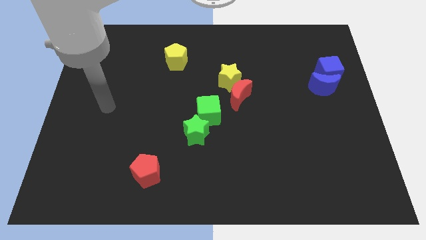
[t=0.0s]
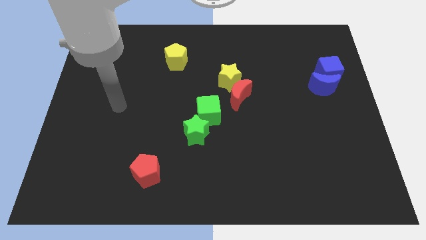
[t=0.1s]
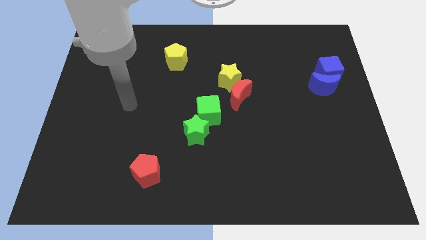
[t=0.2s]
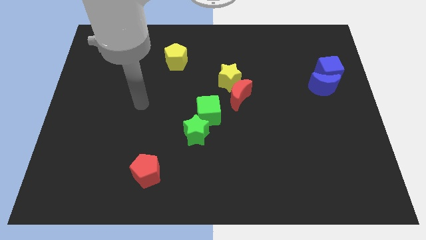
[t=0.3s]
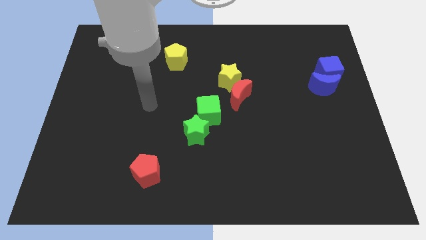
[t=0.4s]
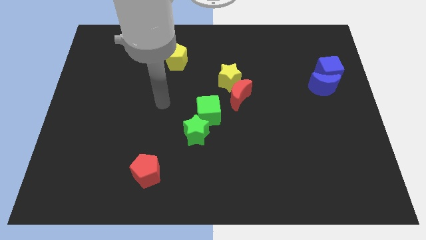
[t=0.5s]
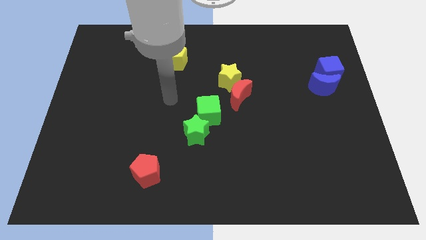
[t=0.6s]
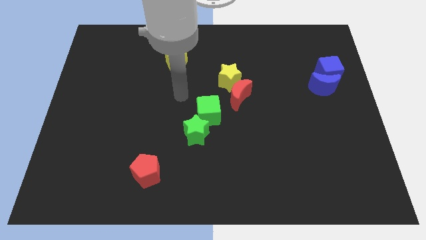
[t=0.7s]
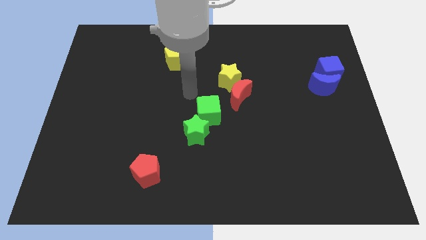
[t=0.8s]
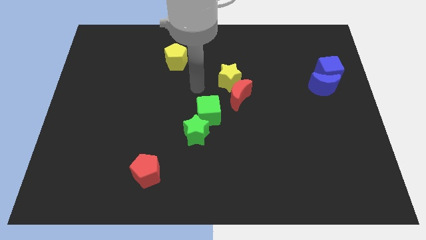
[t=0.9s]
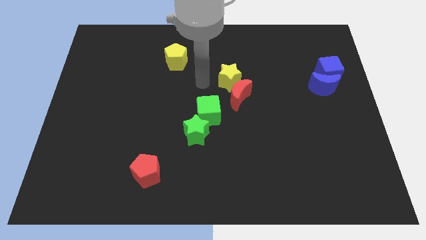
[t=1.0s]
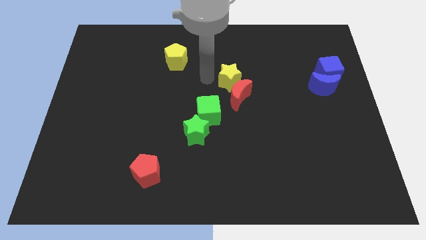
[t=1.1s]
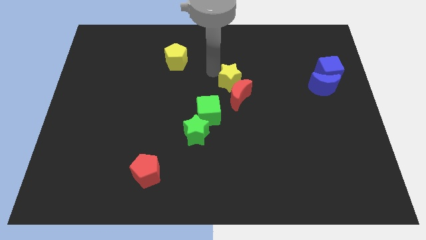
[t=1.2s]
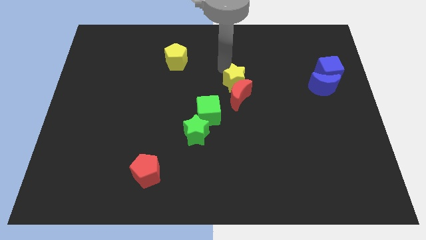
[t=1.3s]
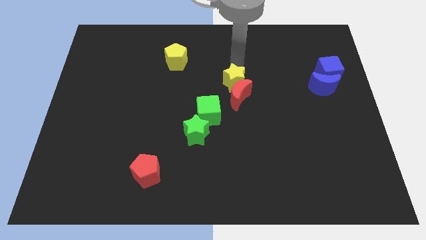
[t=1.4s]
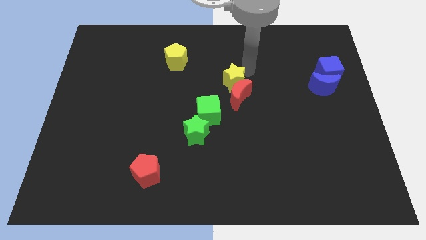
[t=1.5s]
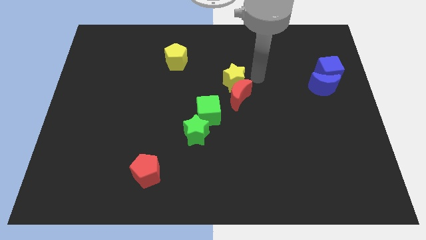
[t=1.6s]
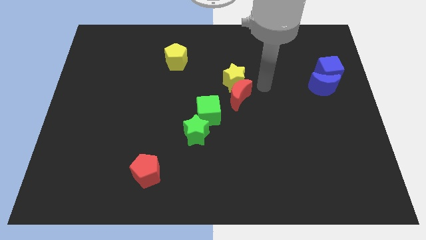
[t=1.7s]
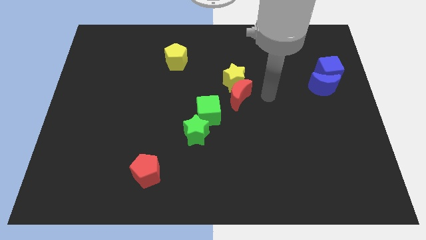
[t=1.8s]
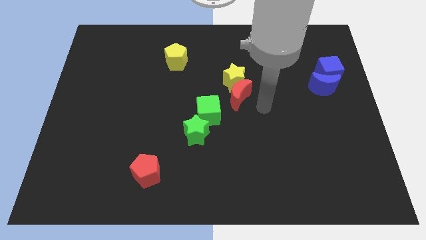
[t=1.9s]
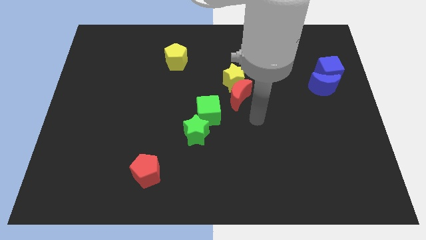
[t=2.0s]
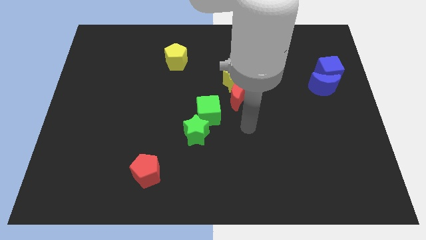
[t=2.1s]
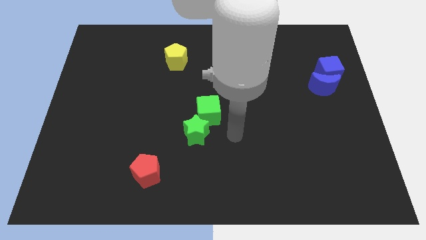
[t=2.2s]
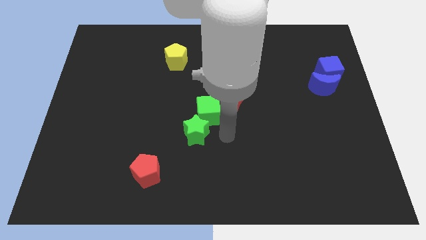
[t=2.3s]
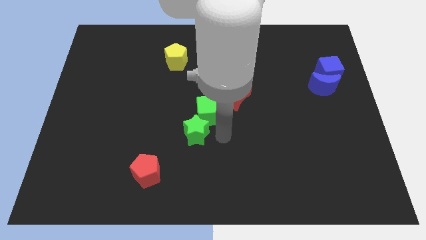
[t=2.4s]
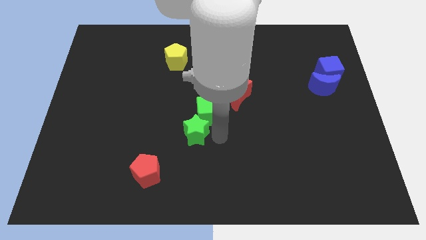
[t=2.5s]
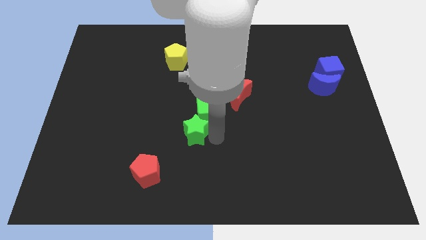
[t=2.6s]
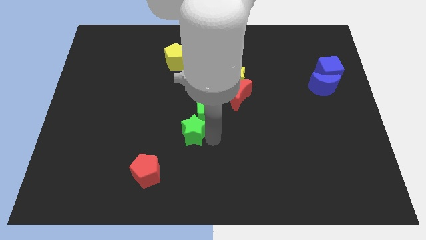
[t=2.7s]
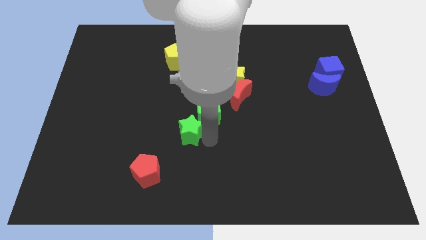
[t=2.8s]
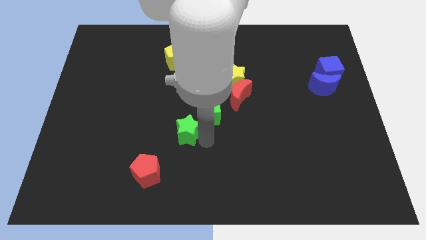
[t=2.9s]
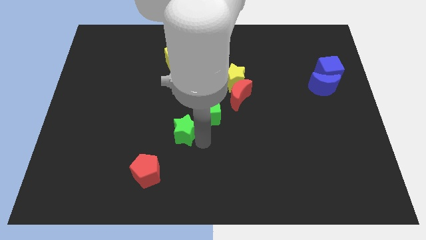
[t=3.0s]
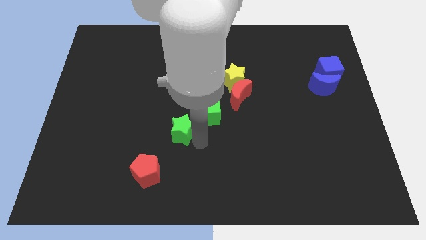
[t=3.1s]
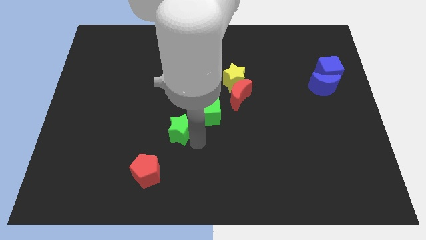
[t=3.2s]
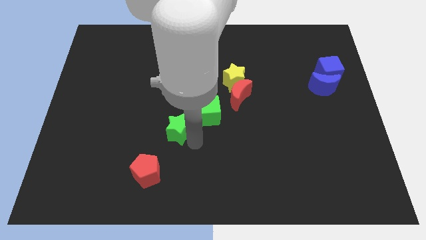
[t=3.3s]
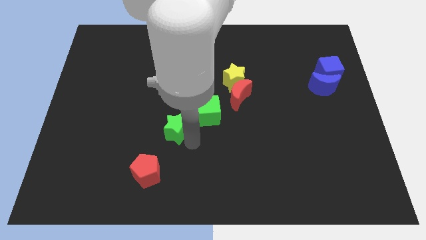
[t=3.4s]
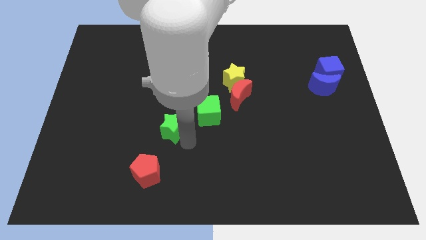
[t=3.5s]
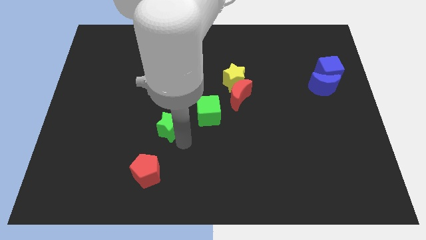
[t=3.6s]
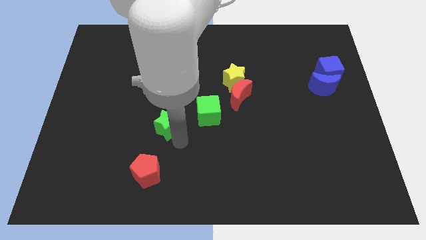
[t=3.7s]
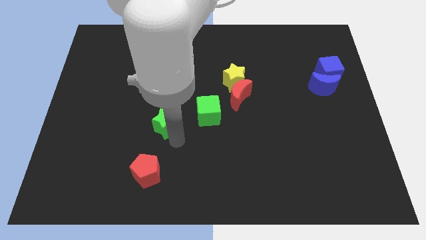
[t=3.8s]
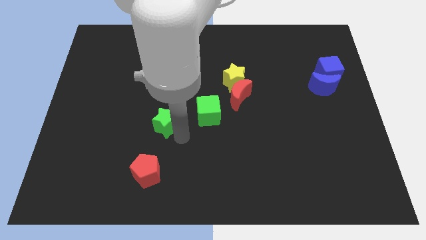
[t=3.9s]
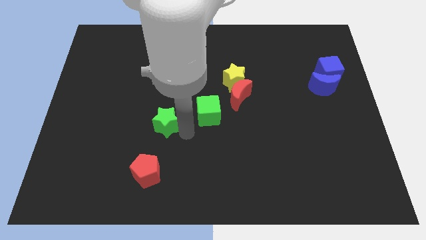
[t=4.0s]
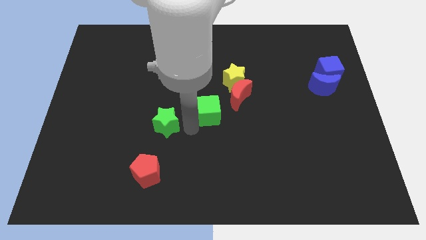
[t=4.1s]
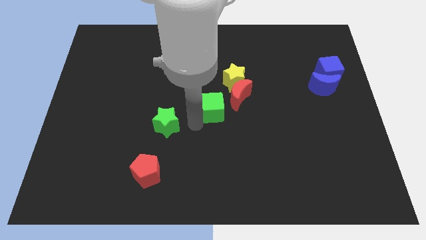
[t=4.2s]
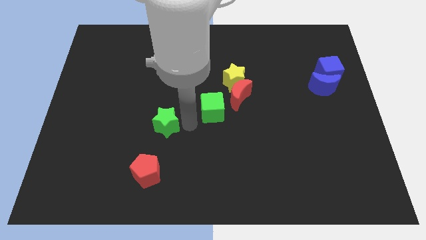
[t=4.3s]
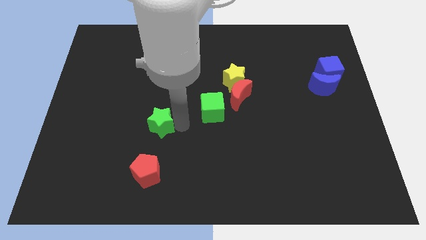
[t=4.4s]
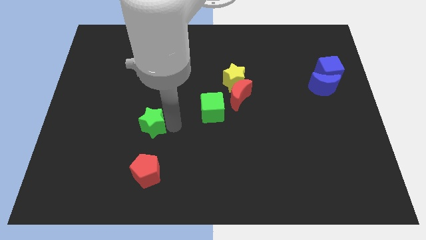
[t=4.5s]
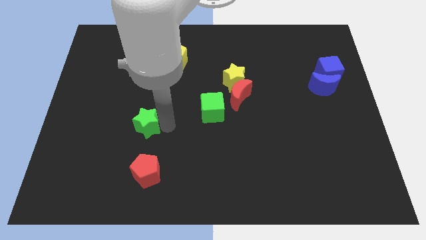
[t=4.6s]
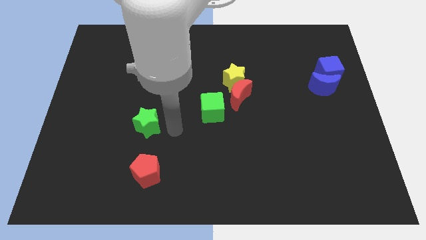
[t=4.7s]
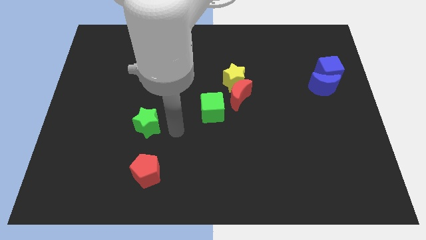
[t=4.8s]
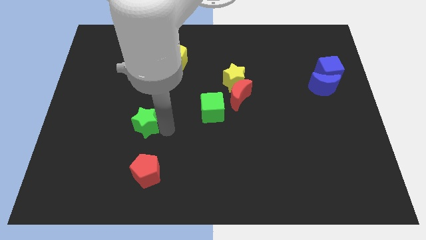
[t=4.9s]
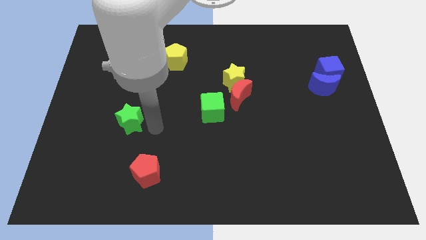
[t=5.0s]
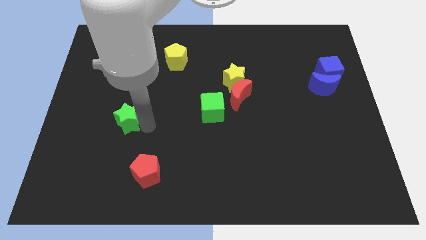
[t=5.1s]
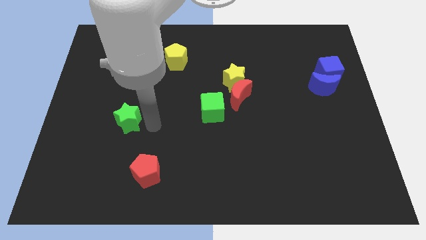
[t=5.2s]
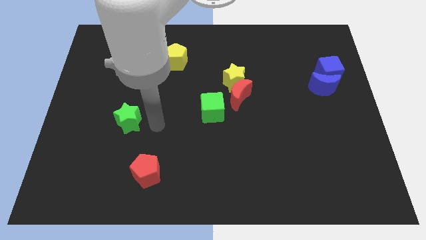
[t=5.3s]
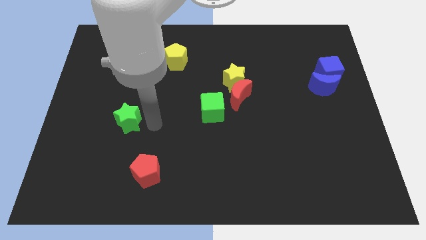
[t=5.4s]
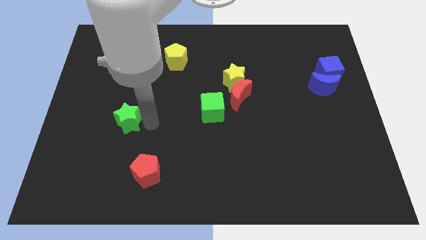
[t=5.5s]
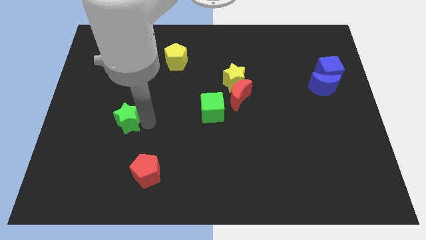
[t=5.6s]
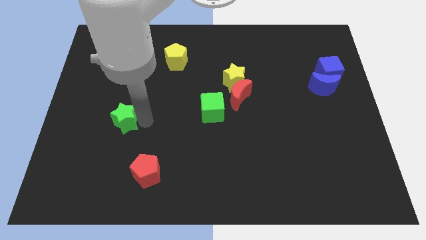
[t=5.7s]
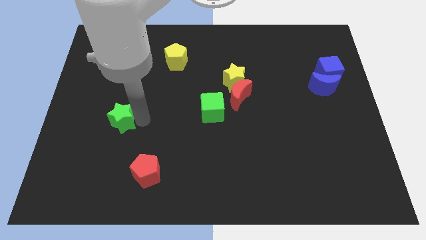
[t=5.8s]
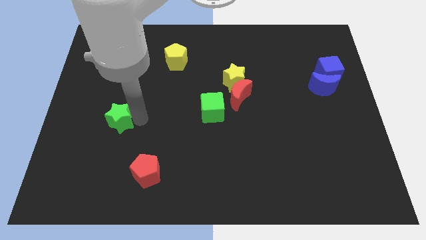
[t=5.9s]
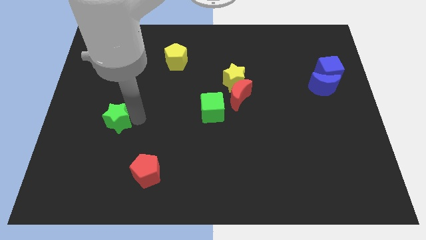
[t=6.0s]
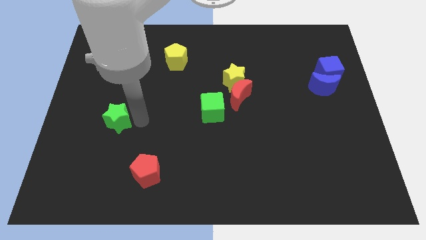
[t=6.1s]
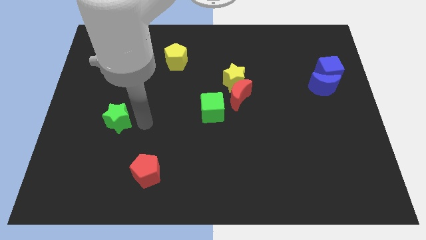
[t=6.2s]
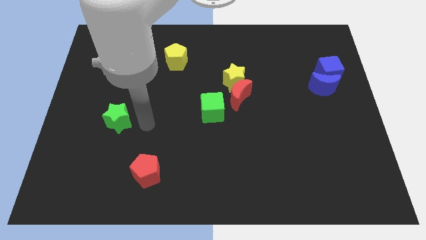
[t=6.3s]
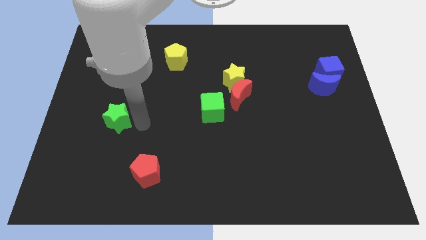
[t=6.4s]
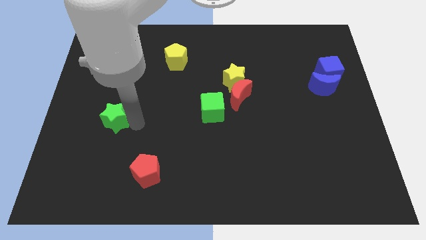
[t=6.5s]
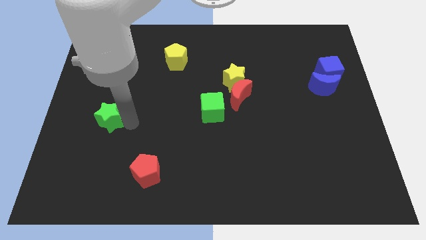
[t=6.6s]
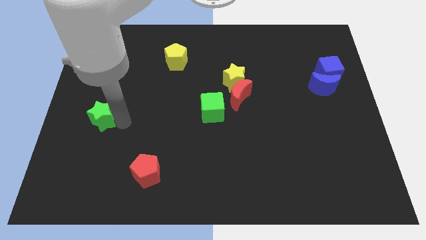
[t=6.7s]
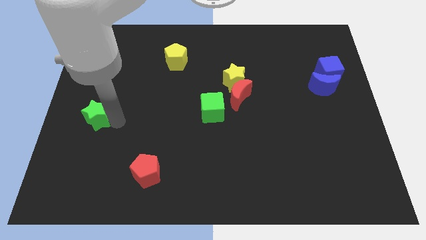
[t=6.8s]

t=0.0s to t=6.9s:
push the green star to the center left
